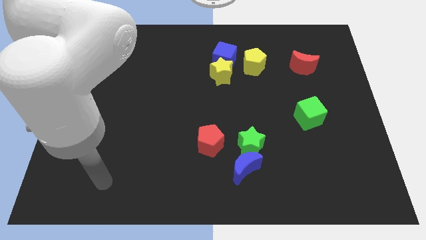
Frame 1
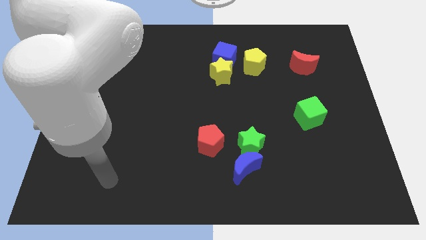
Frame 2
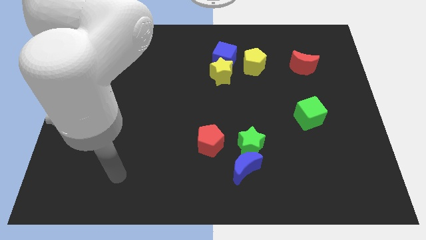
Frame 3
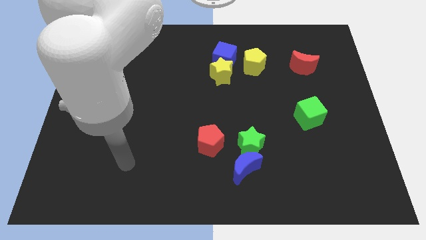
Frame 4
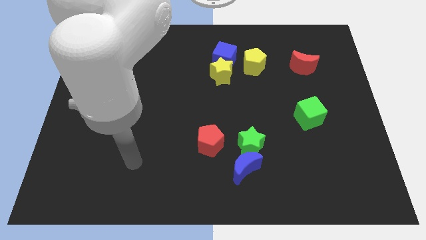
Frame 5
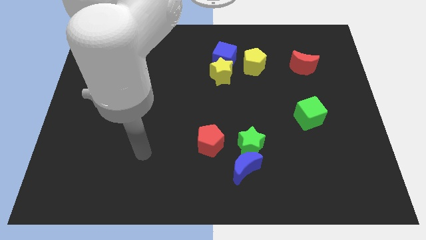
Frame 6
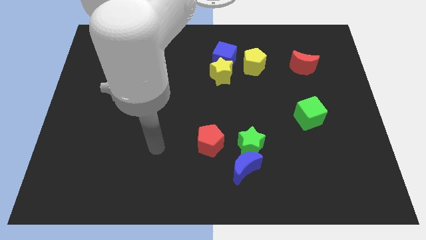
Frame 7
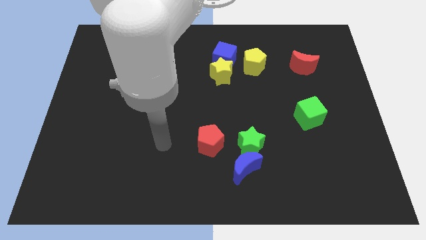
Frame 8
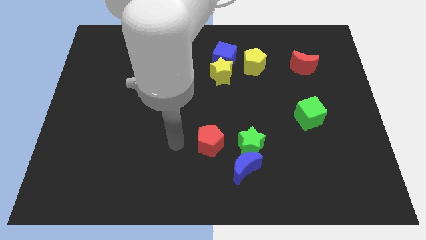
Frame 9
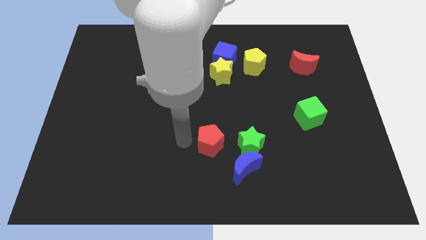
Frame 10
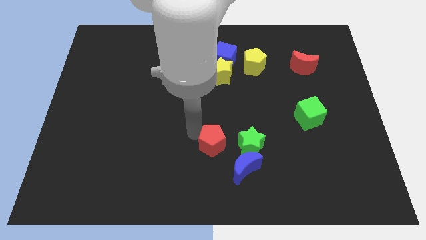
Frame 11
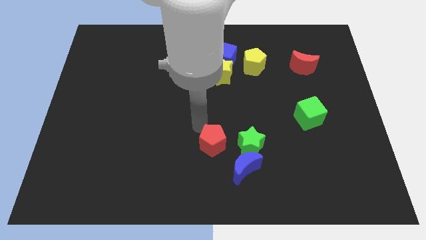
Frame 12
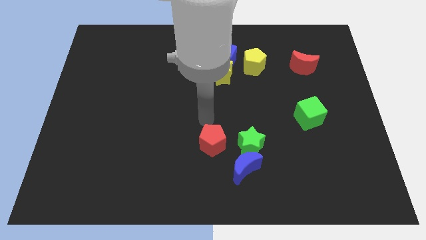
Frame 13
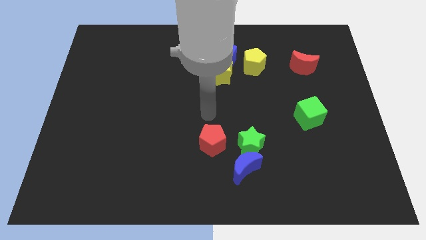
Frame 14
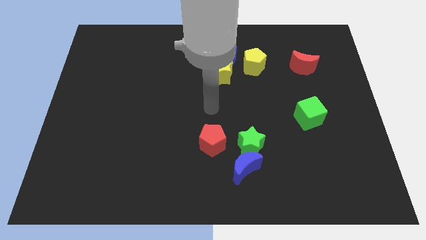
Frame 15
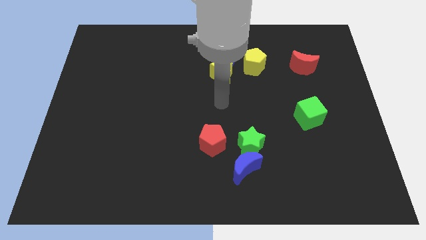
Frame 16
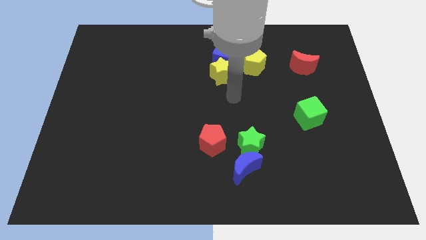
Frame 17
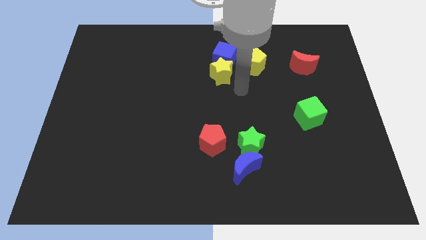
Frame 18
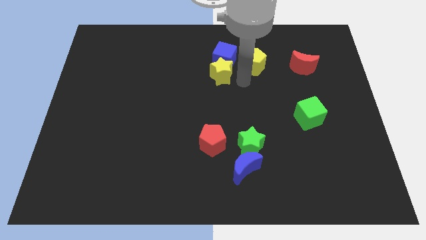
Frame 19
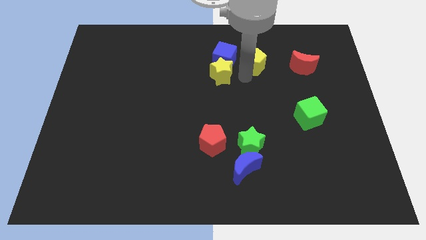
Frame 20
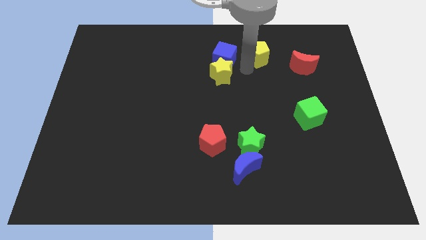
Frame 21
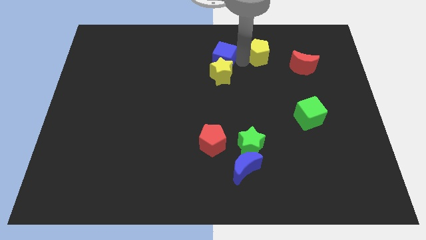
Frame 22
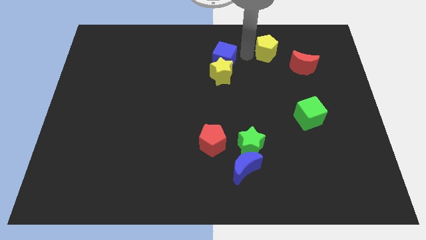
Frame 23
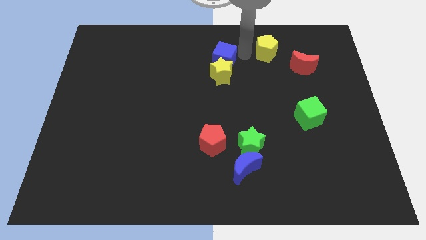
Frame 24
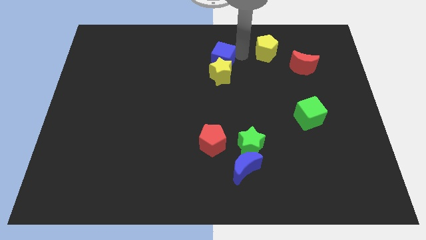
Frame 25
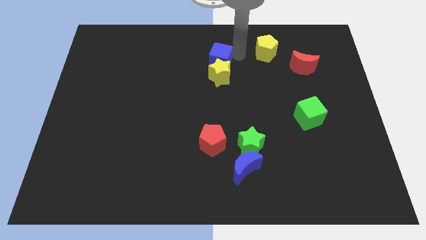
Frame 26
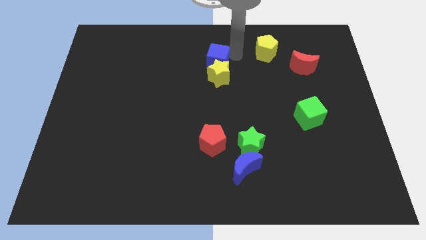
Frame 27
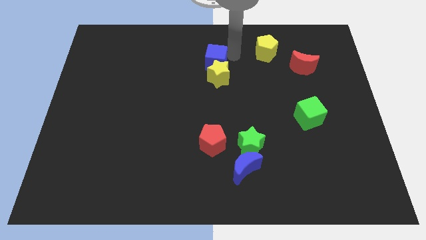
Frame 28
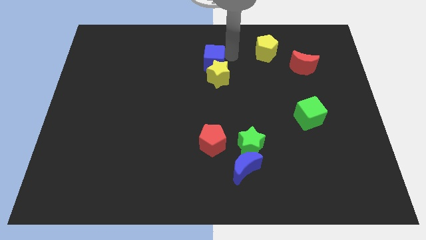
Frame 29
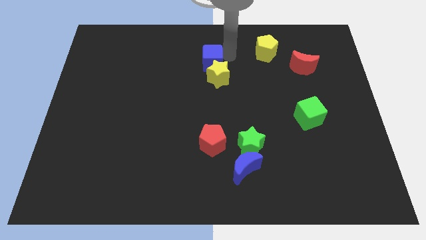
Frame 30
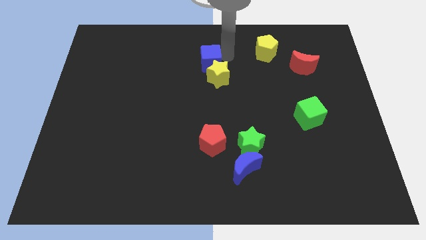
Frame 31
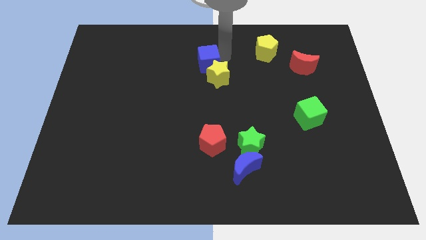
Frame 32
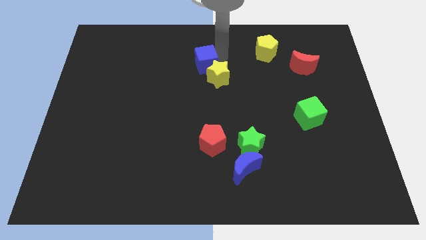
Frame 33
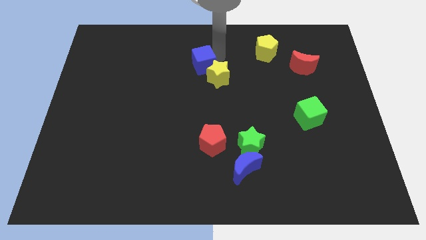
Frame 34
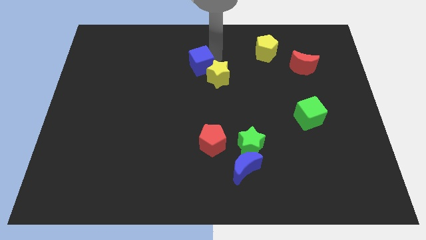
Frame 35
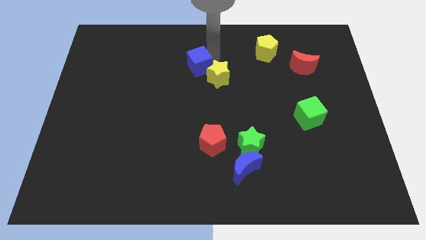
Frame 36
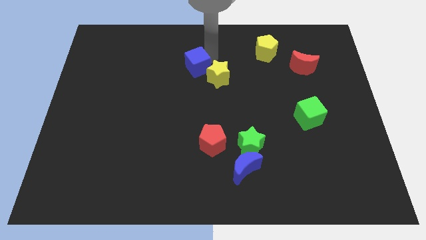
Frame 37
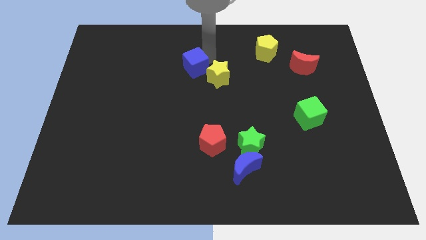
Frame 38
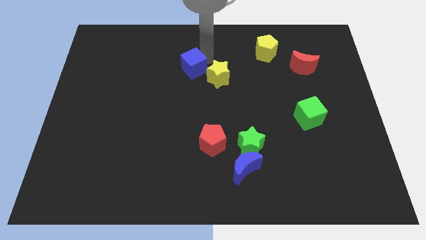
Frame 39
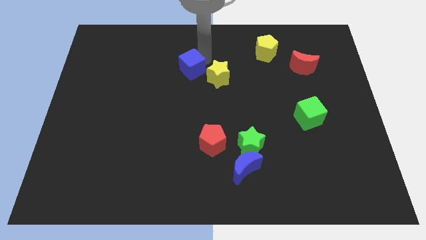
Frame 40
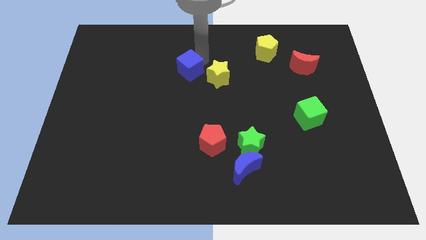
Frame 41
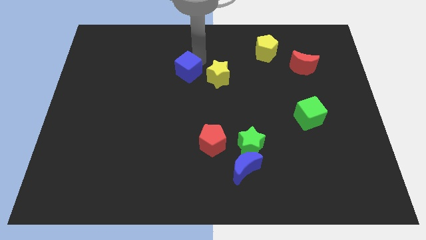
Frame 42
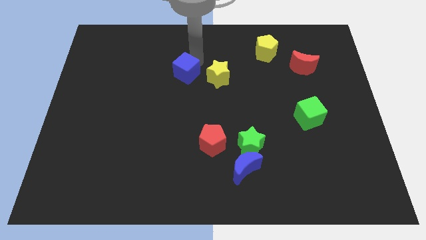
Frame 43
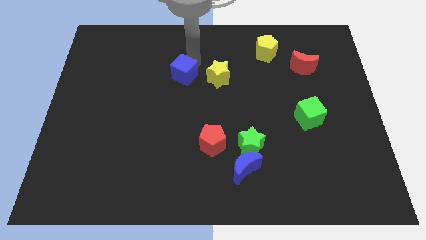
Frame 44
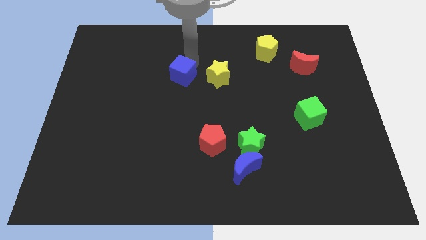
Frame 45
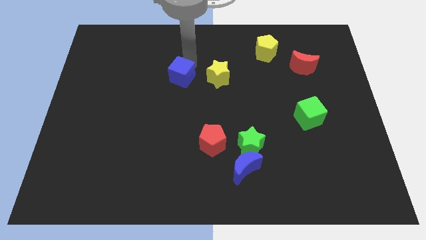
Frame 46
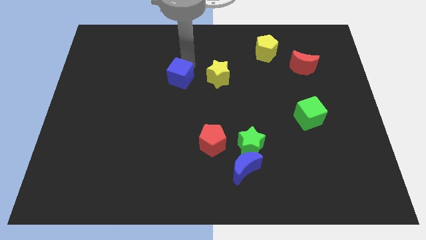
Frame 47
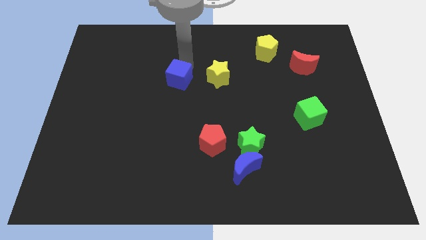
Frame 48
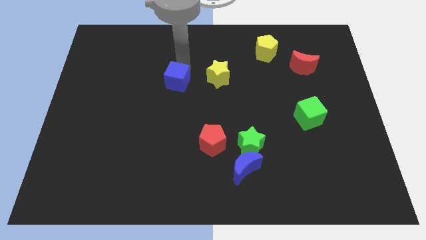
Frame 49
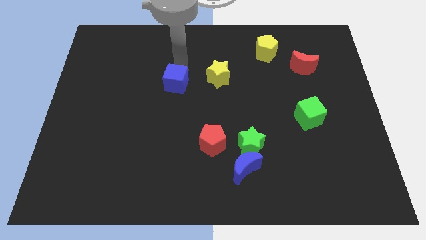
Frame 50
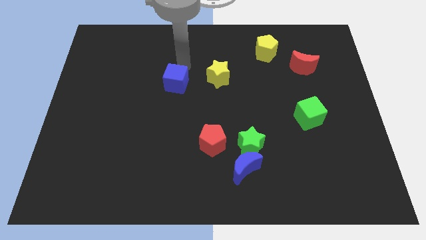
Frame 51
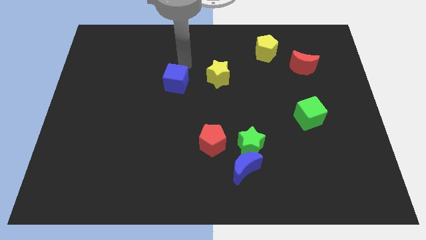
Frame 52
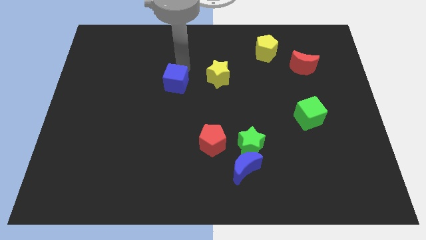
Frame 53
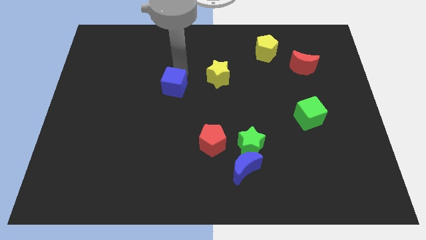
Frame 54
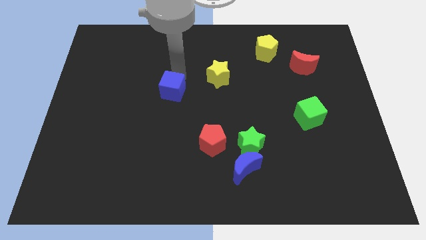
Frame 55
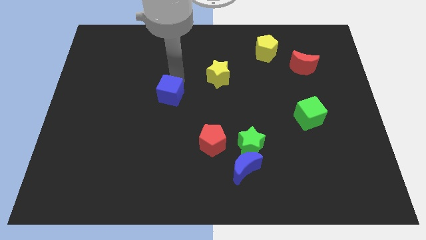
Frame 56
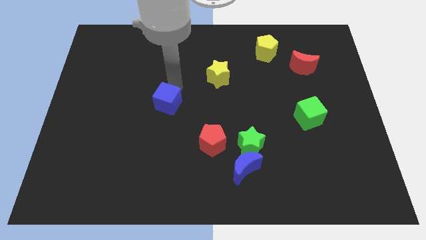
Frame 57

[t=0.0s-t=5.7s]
move the blue cube down and then to the left

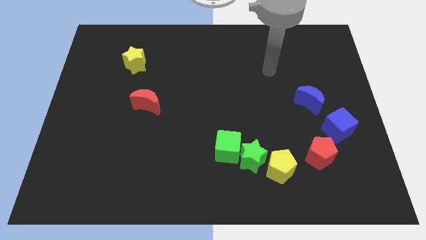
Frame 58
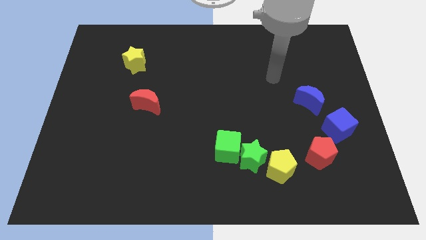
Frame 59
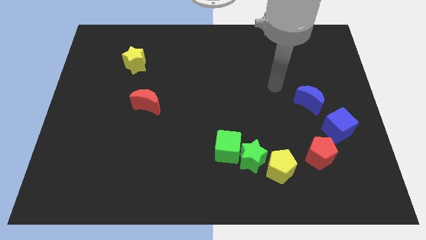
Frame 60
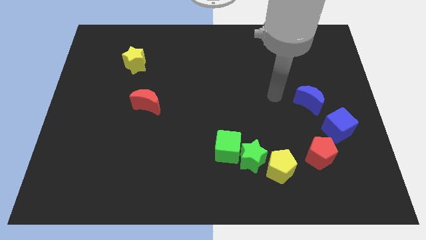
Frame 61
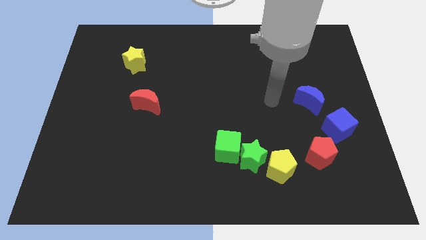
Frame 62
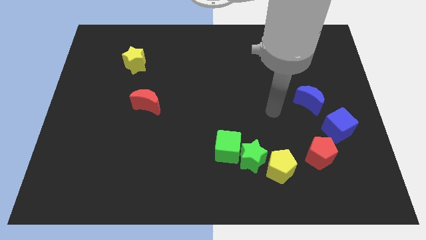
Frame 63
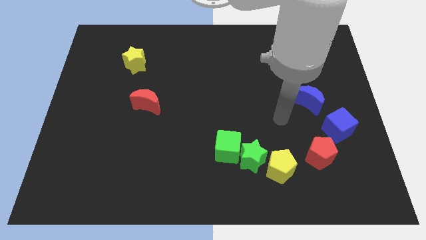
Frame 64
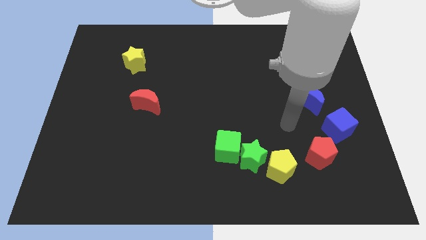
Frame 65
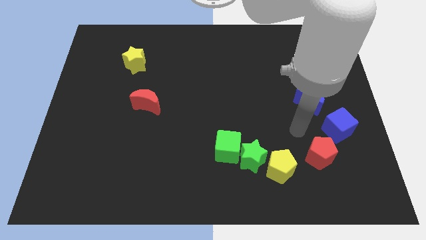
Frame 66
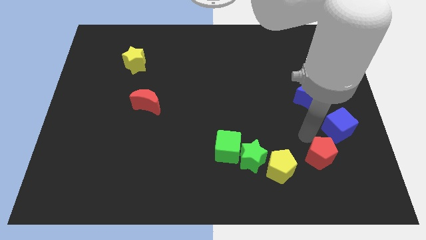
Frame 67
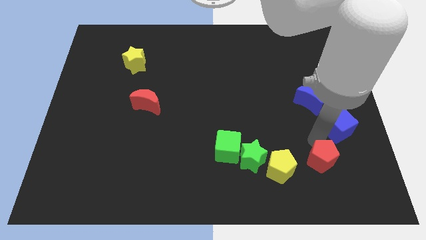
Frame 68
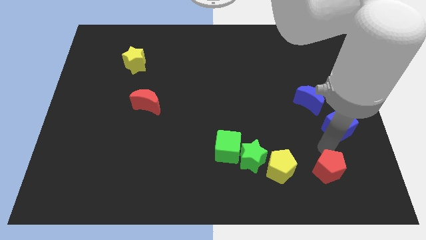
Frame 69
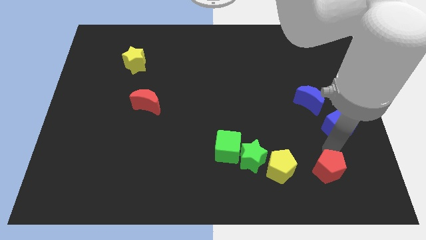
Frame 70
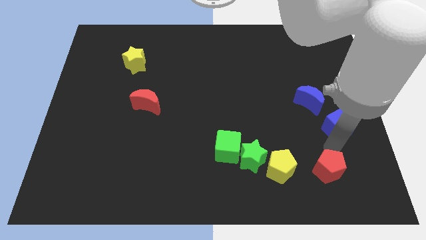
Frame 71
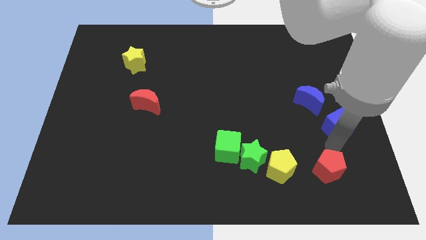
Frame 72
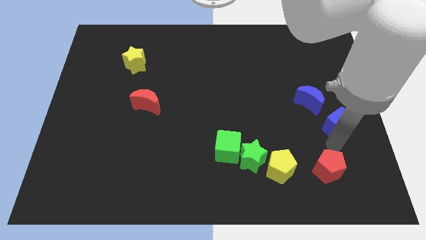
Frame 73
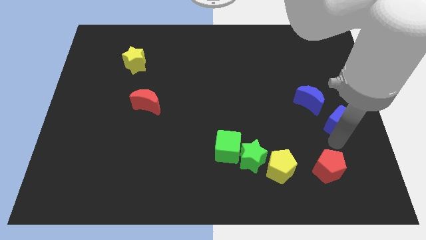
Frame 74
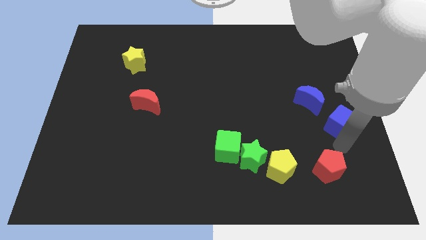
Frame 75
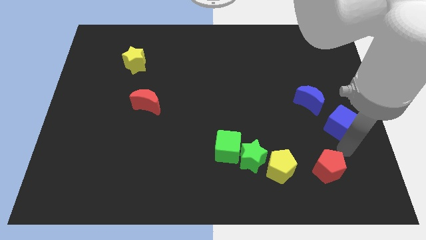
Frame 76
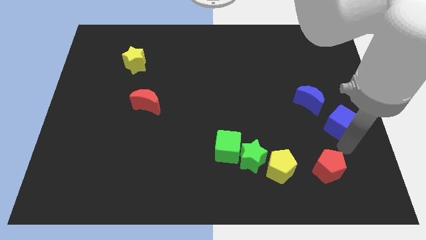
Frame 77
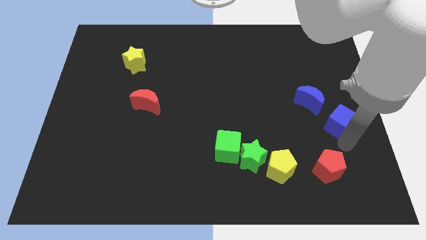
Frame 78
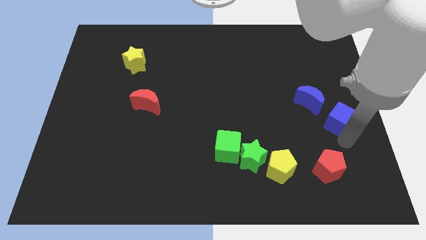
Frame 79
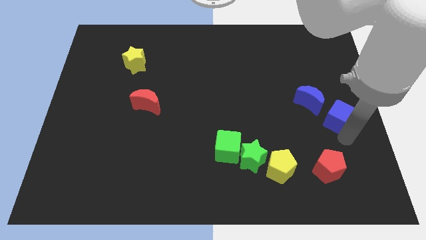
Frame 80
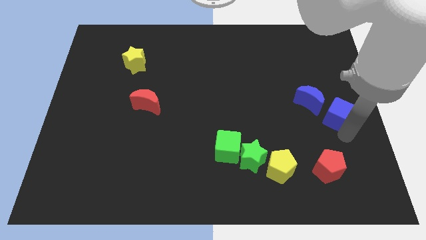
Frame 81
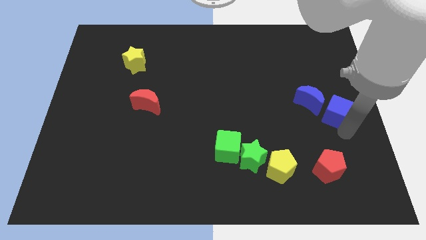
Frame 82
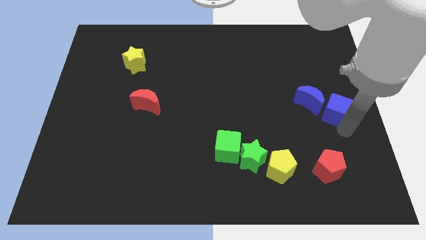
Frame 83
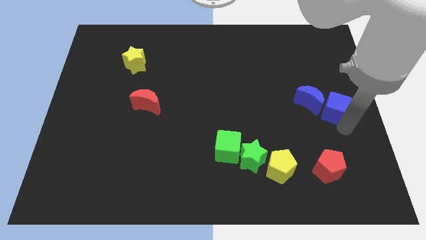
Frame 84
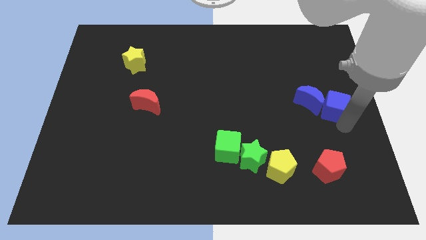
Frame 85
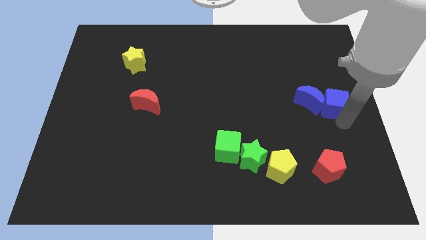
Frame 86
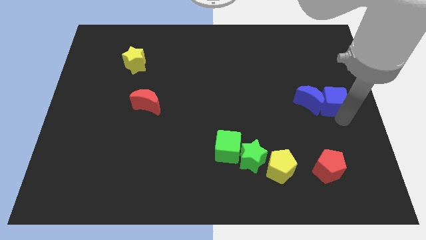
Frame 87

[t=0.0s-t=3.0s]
push the blue cube upwards slightly
